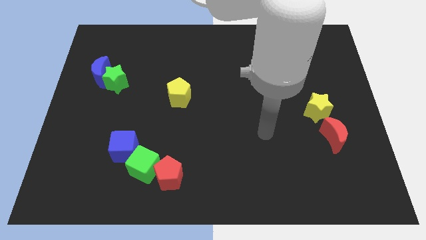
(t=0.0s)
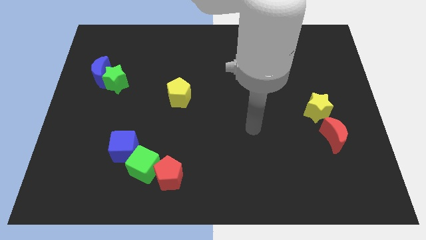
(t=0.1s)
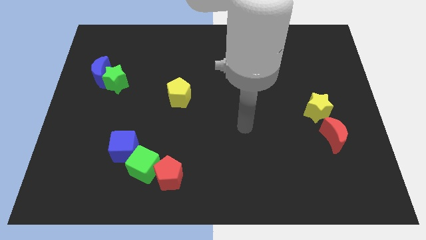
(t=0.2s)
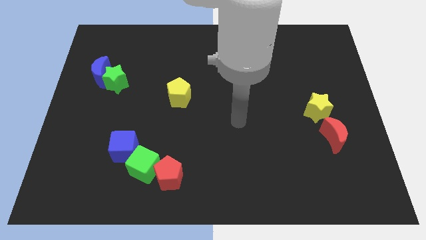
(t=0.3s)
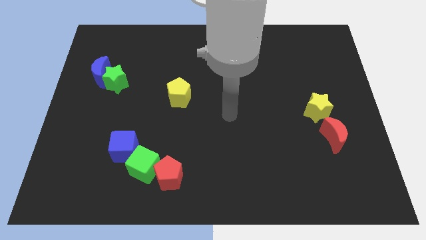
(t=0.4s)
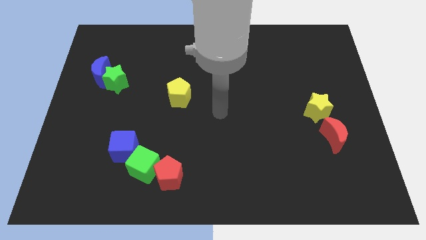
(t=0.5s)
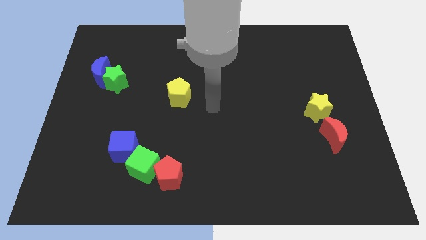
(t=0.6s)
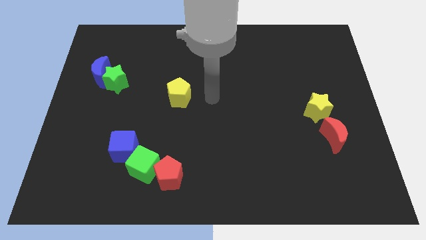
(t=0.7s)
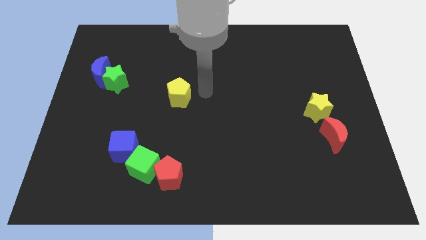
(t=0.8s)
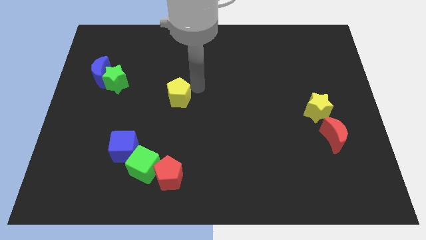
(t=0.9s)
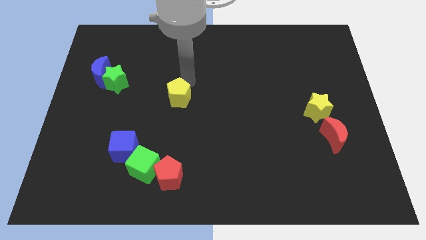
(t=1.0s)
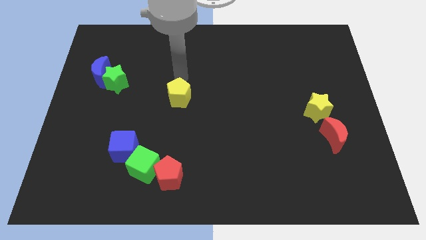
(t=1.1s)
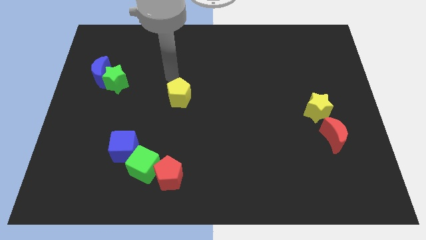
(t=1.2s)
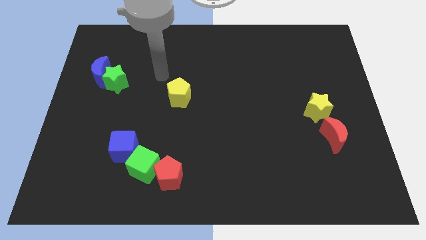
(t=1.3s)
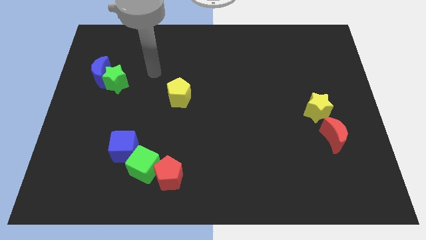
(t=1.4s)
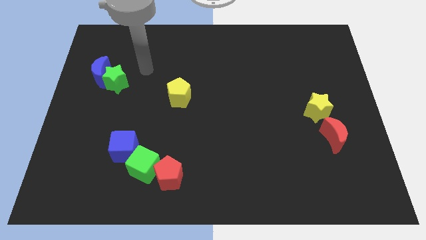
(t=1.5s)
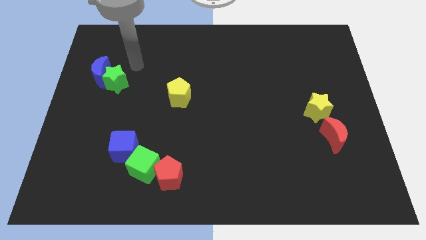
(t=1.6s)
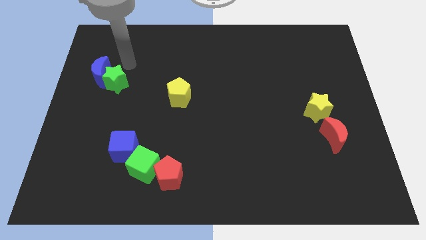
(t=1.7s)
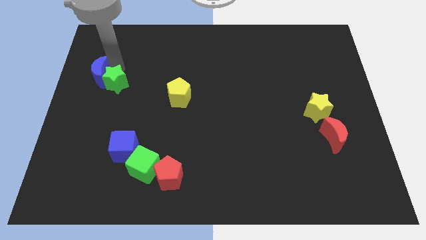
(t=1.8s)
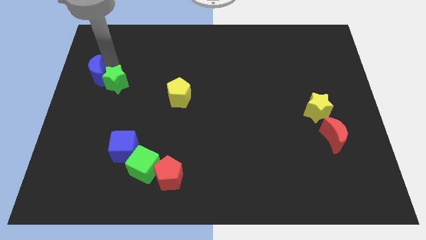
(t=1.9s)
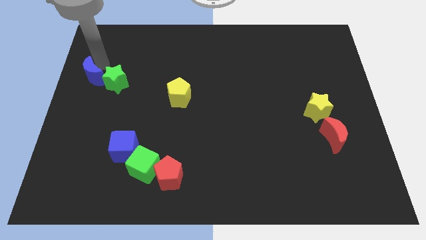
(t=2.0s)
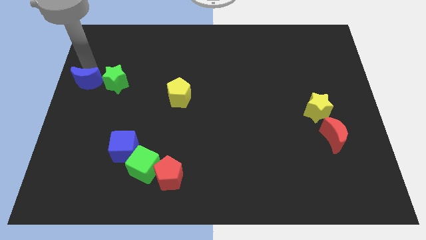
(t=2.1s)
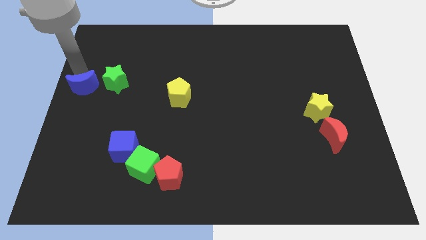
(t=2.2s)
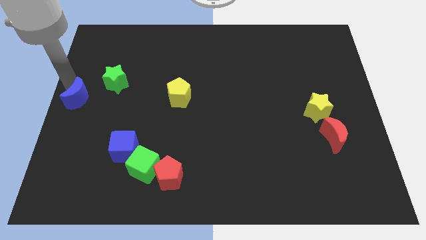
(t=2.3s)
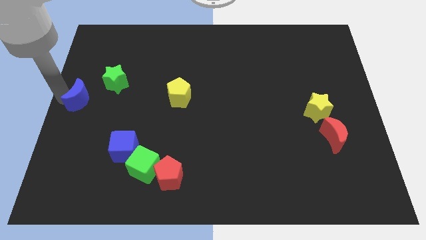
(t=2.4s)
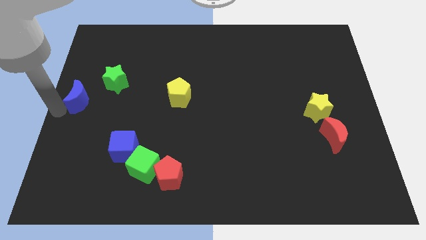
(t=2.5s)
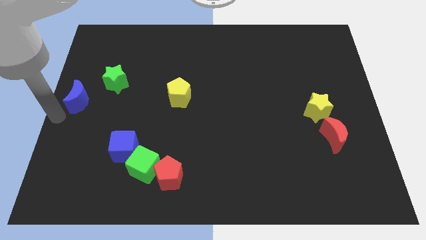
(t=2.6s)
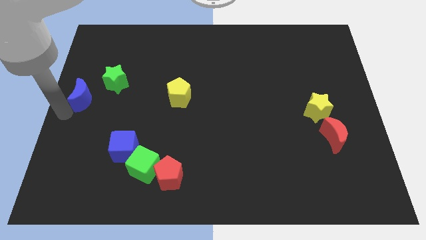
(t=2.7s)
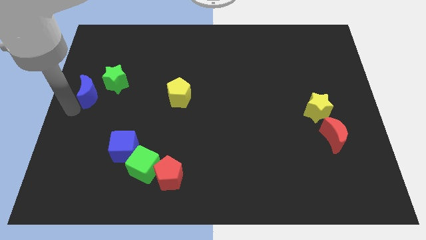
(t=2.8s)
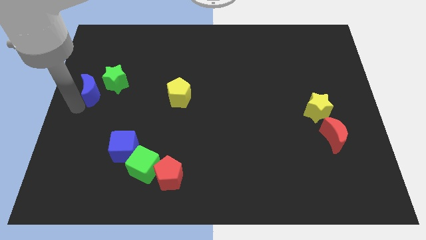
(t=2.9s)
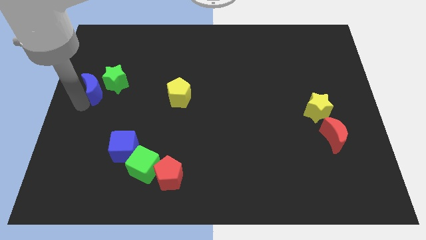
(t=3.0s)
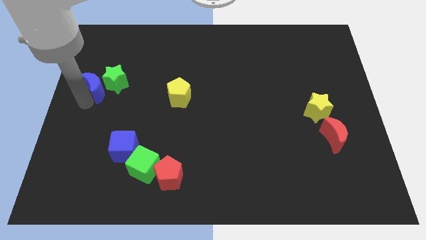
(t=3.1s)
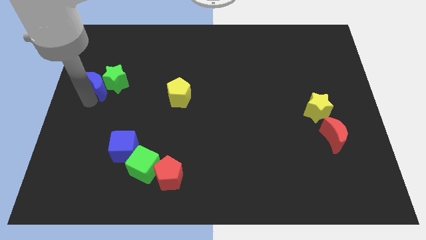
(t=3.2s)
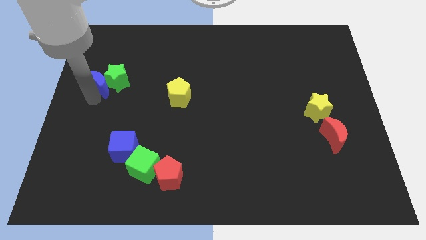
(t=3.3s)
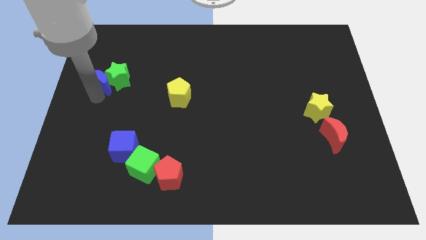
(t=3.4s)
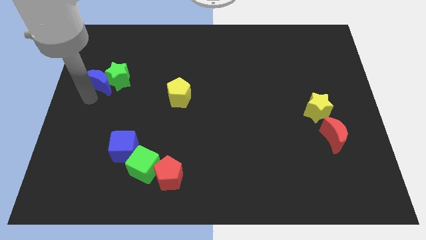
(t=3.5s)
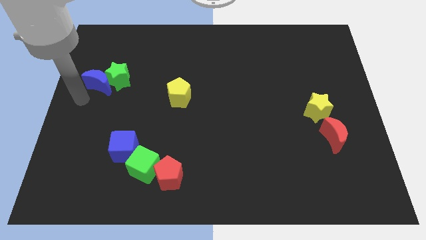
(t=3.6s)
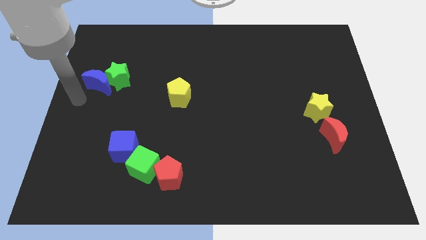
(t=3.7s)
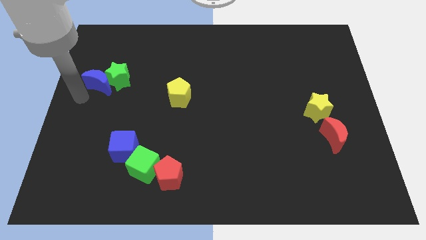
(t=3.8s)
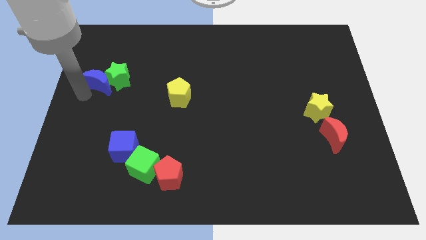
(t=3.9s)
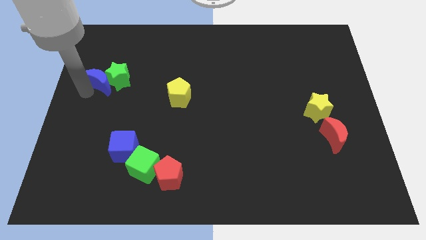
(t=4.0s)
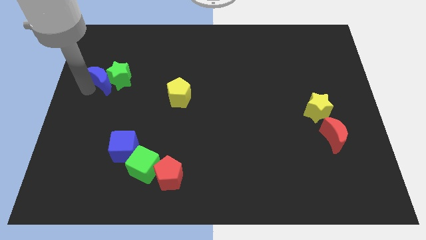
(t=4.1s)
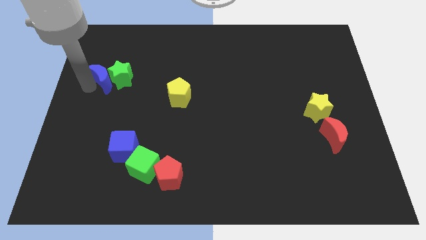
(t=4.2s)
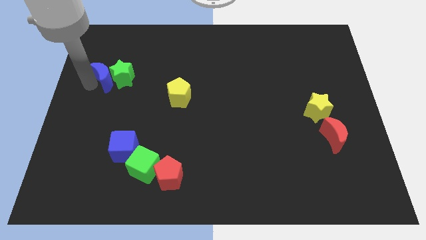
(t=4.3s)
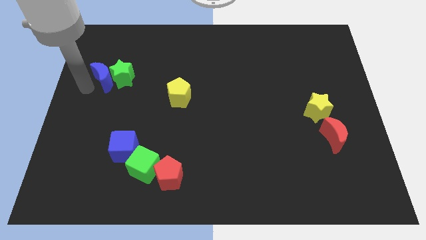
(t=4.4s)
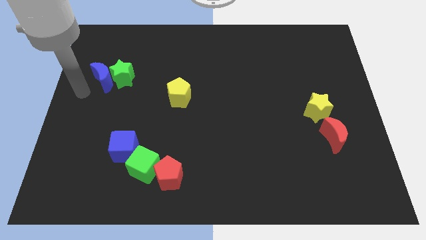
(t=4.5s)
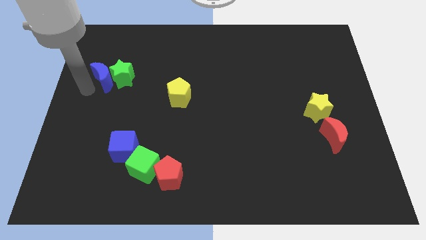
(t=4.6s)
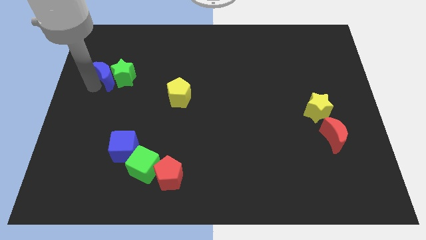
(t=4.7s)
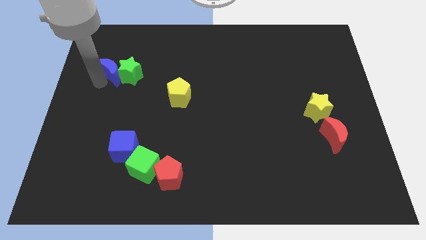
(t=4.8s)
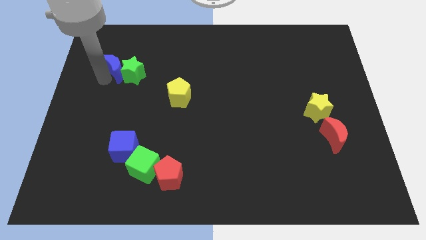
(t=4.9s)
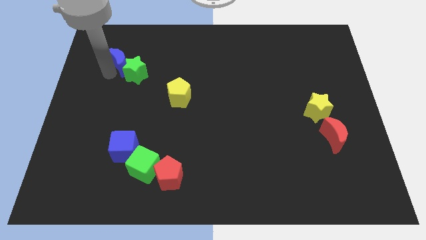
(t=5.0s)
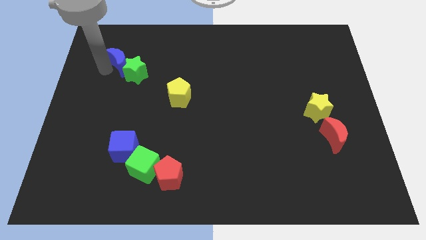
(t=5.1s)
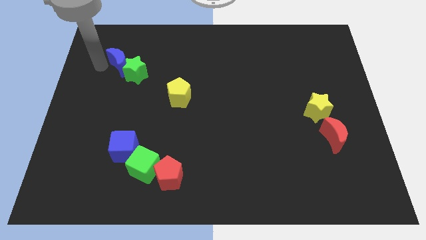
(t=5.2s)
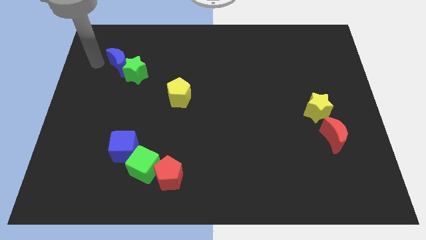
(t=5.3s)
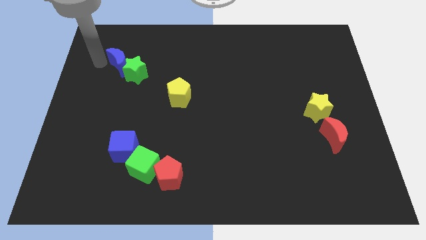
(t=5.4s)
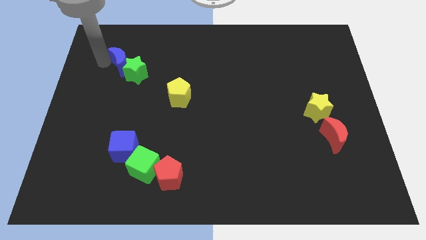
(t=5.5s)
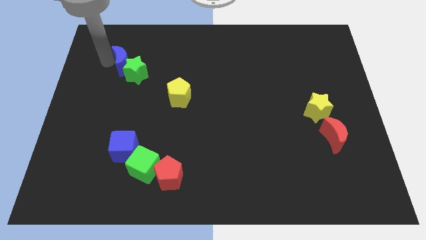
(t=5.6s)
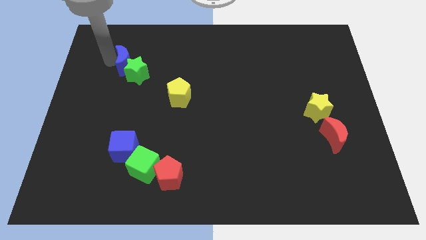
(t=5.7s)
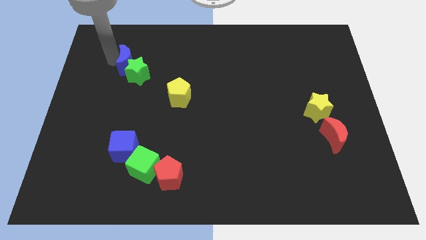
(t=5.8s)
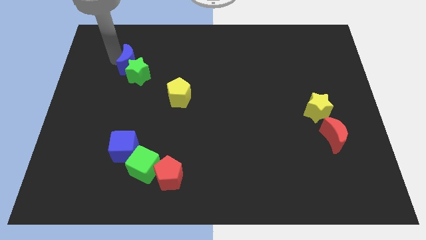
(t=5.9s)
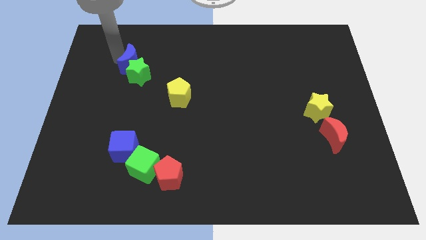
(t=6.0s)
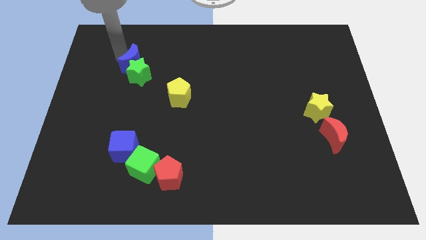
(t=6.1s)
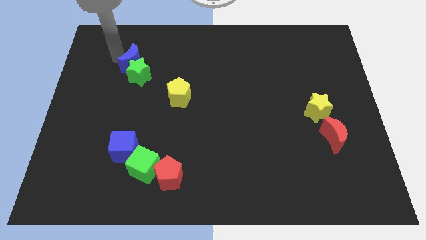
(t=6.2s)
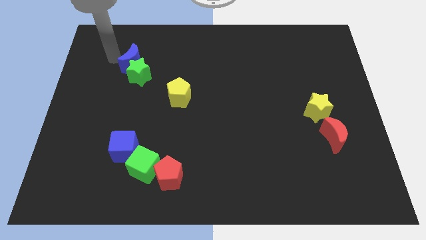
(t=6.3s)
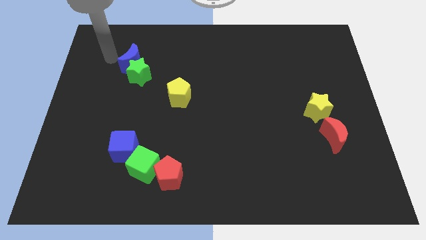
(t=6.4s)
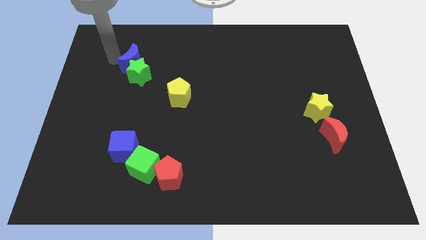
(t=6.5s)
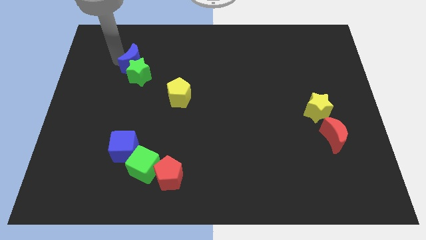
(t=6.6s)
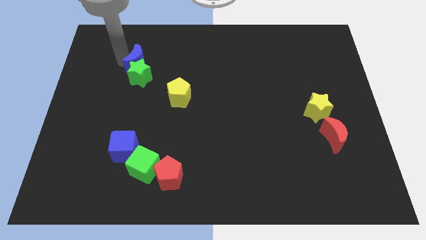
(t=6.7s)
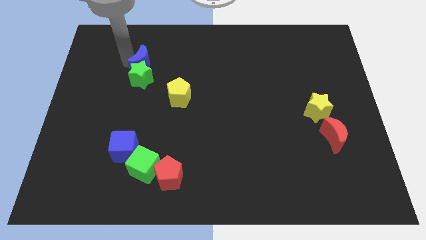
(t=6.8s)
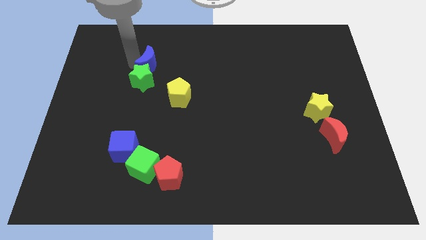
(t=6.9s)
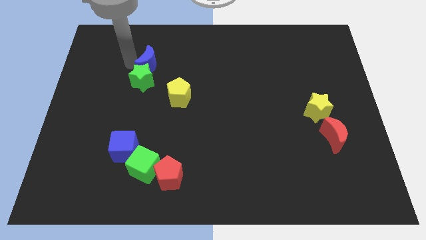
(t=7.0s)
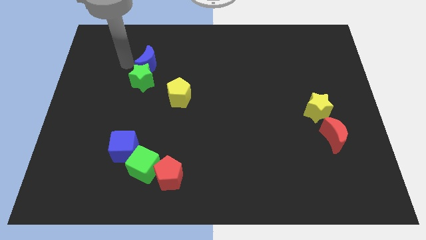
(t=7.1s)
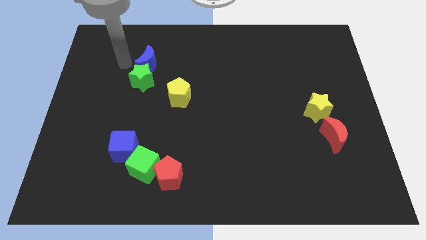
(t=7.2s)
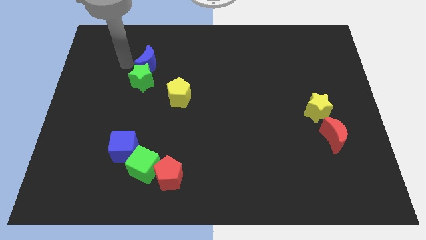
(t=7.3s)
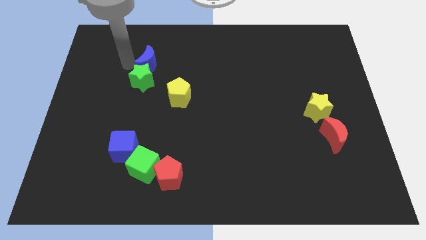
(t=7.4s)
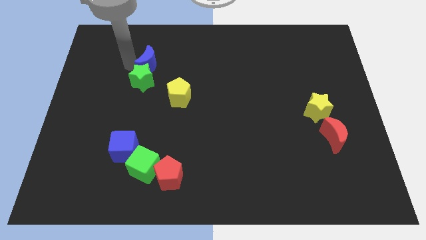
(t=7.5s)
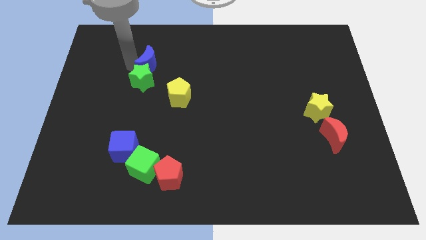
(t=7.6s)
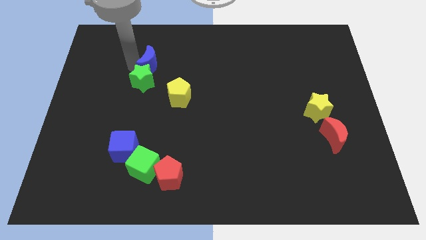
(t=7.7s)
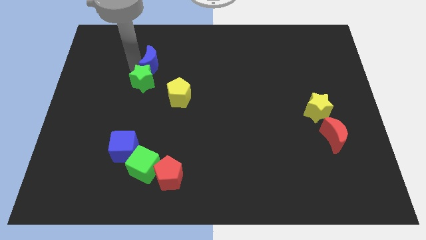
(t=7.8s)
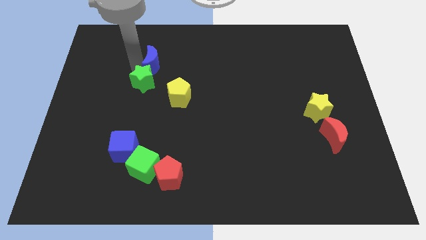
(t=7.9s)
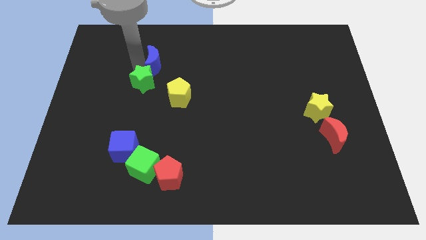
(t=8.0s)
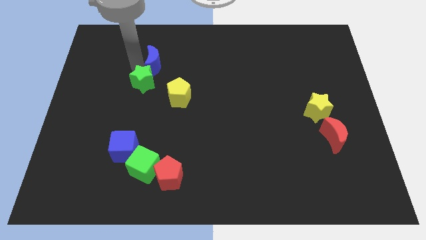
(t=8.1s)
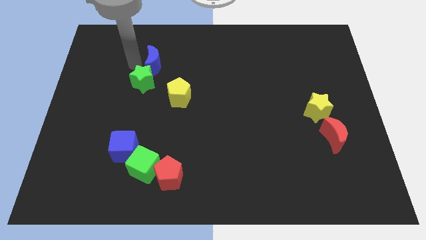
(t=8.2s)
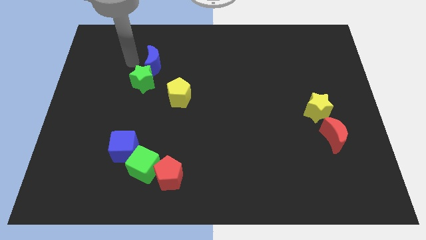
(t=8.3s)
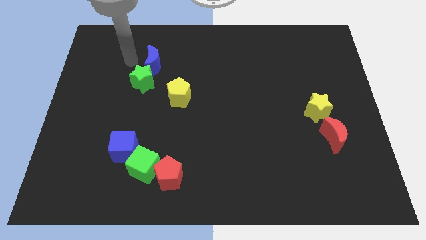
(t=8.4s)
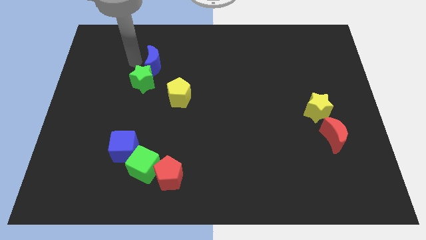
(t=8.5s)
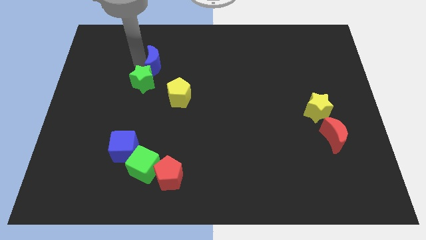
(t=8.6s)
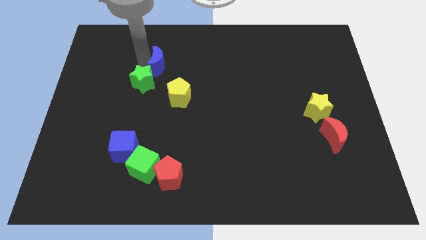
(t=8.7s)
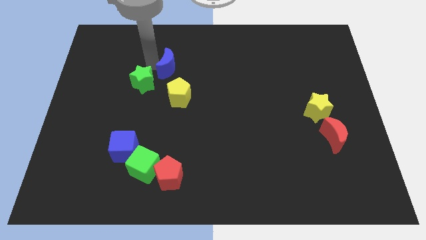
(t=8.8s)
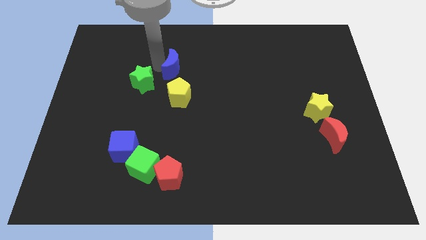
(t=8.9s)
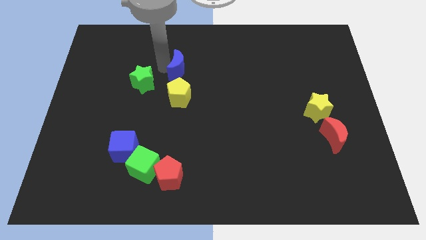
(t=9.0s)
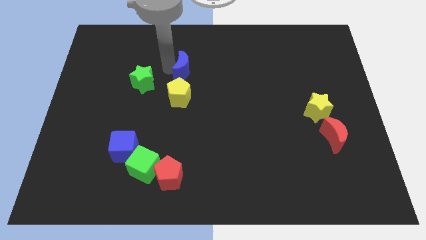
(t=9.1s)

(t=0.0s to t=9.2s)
move the blue moon right
